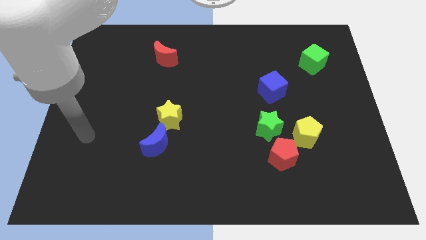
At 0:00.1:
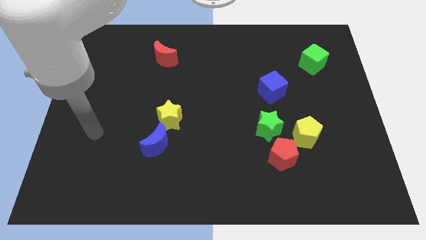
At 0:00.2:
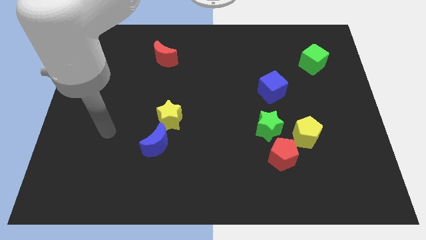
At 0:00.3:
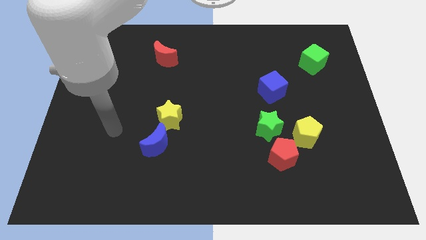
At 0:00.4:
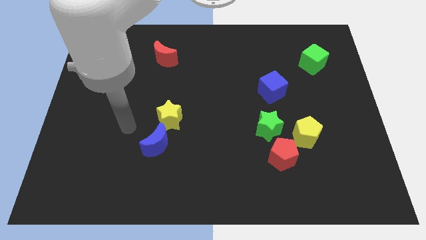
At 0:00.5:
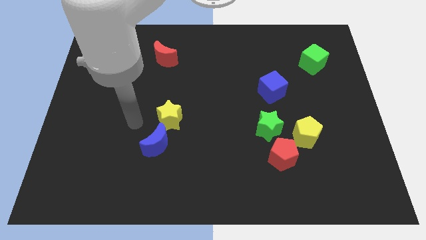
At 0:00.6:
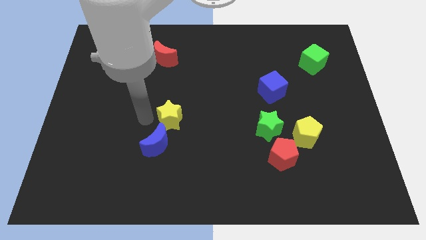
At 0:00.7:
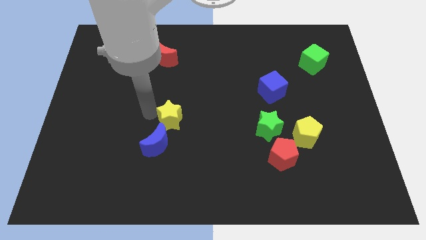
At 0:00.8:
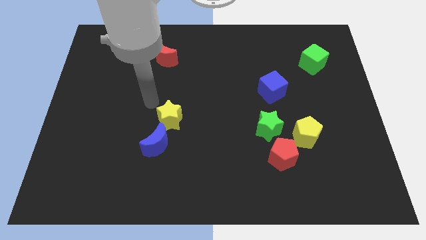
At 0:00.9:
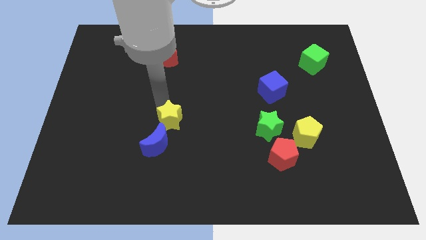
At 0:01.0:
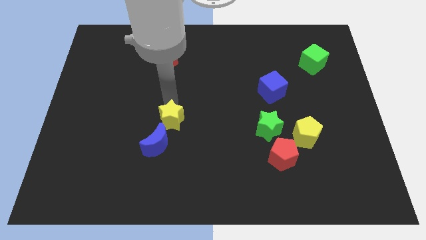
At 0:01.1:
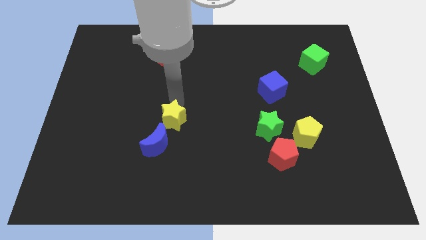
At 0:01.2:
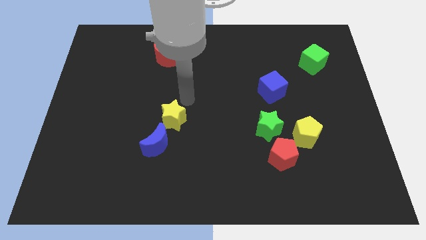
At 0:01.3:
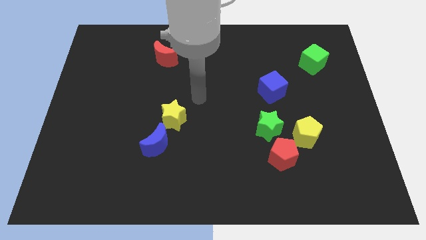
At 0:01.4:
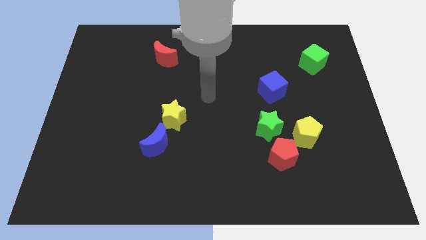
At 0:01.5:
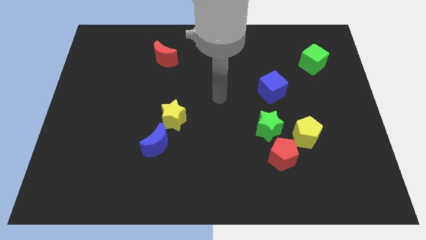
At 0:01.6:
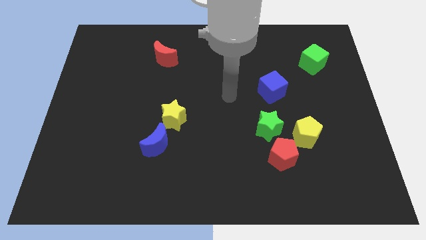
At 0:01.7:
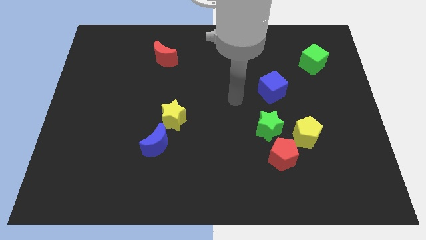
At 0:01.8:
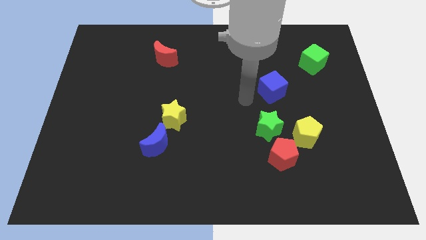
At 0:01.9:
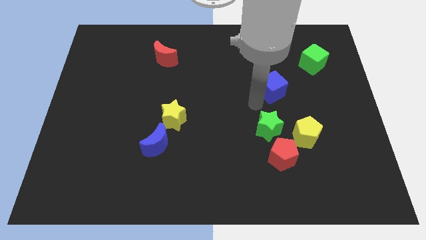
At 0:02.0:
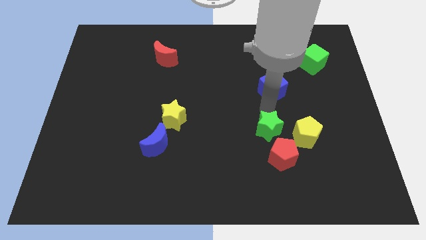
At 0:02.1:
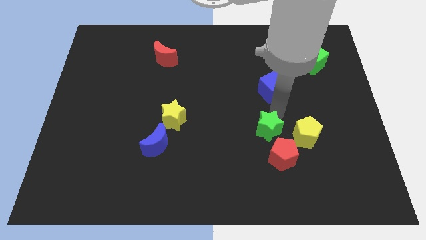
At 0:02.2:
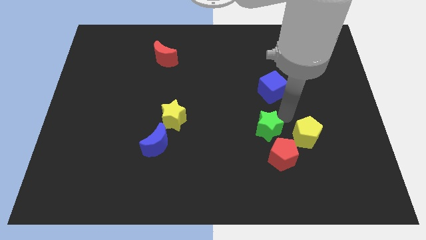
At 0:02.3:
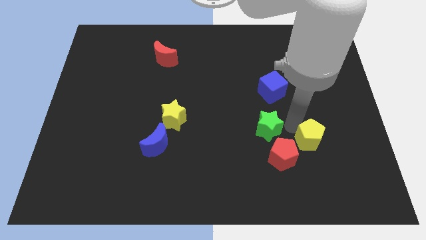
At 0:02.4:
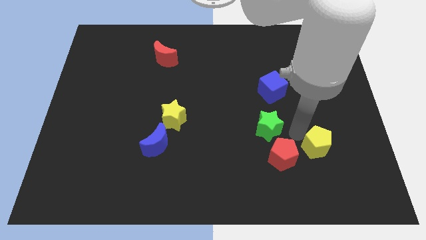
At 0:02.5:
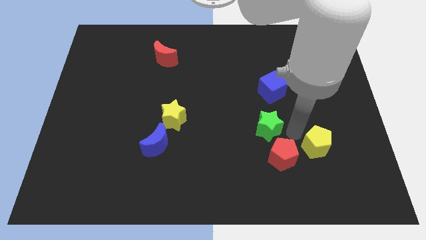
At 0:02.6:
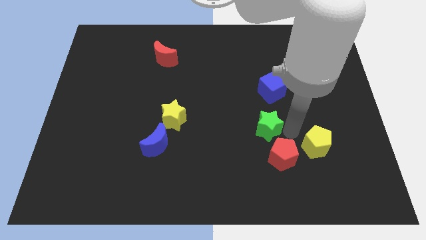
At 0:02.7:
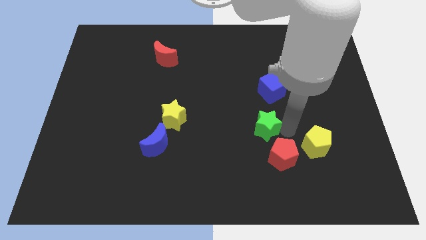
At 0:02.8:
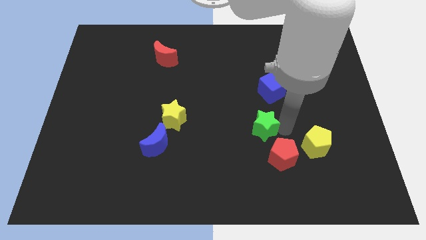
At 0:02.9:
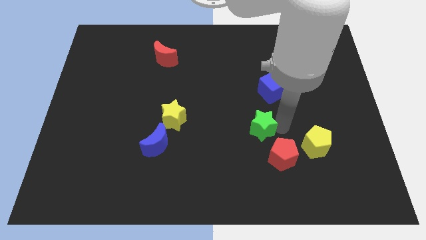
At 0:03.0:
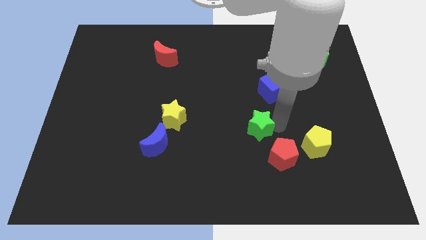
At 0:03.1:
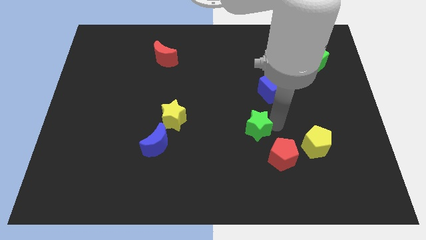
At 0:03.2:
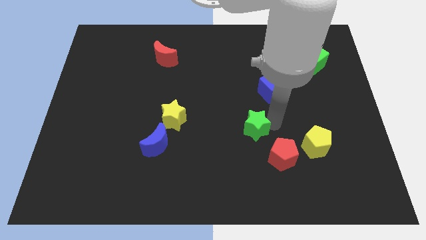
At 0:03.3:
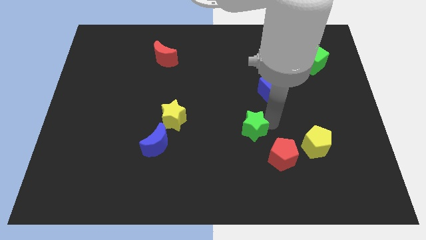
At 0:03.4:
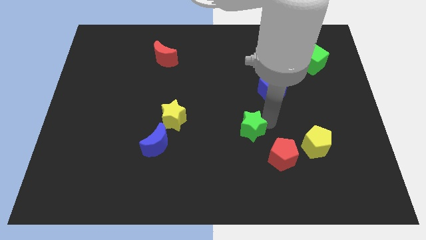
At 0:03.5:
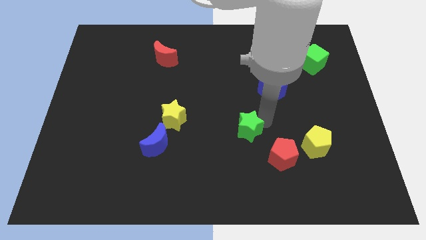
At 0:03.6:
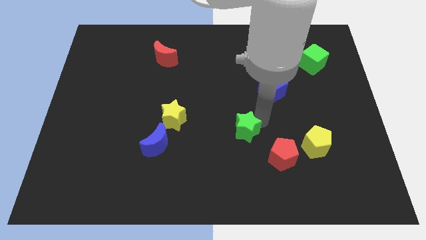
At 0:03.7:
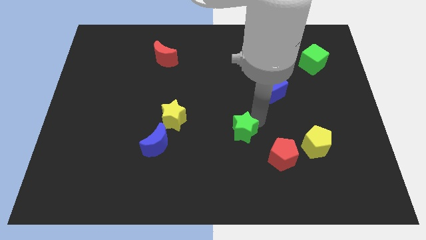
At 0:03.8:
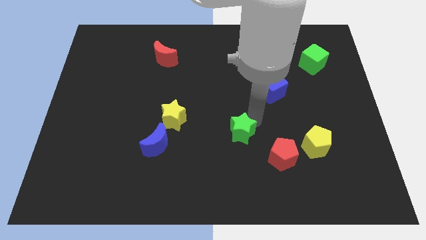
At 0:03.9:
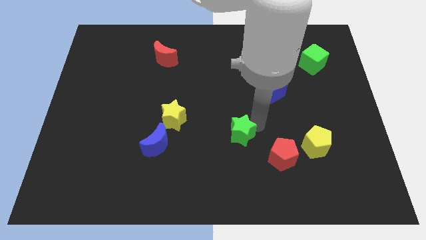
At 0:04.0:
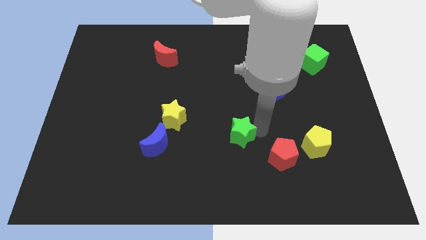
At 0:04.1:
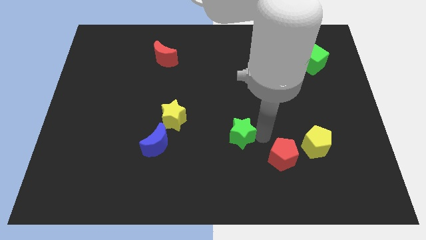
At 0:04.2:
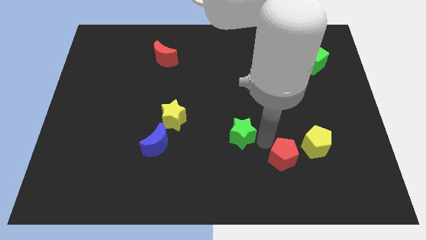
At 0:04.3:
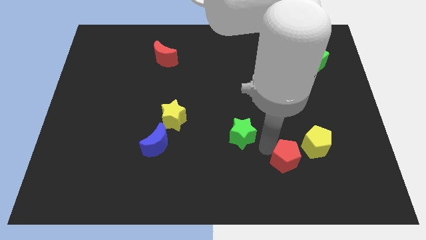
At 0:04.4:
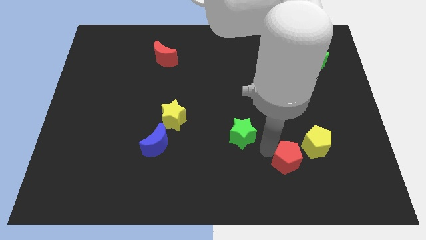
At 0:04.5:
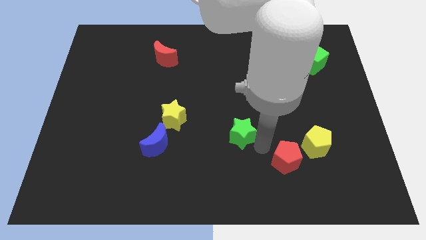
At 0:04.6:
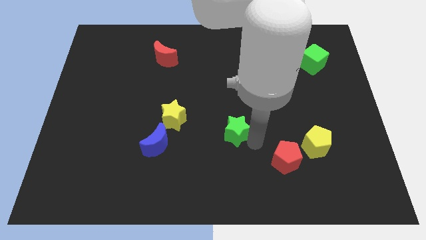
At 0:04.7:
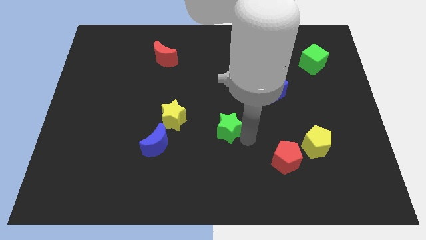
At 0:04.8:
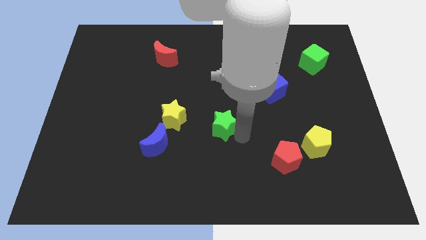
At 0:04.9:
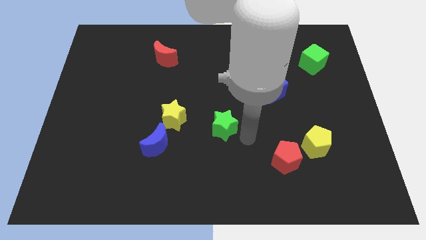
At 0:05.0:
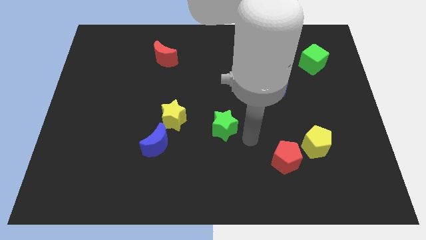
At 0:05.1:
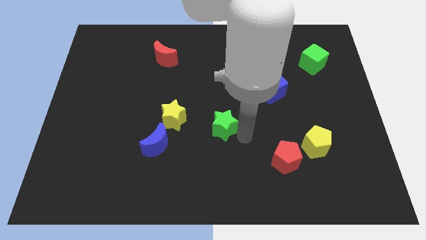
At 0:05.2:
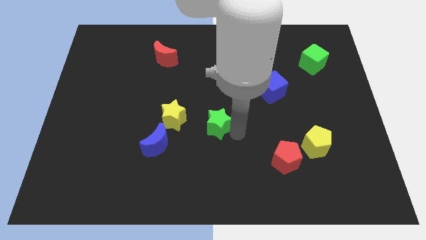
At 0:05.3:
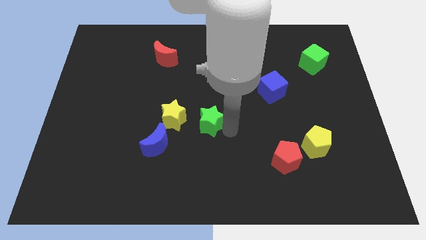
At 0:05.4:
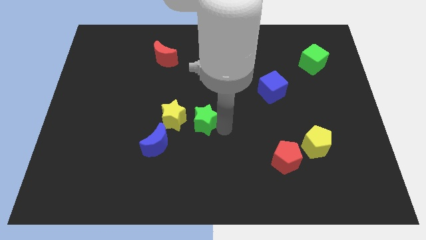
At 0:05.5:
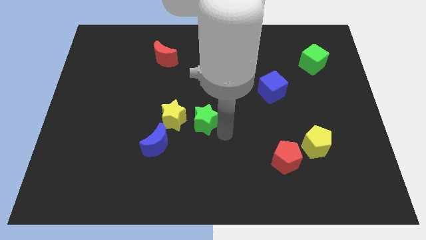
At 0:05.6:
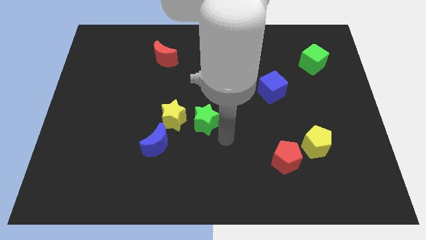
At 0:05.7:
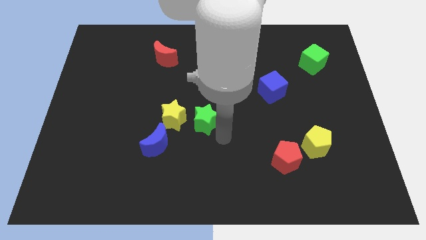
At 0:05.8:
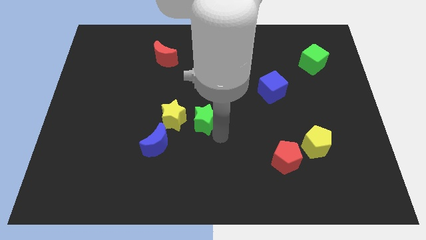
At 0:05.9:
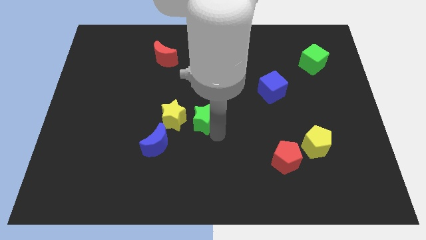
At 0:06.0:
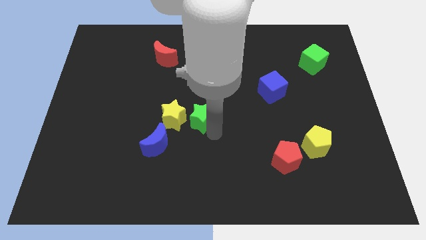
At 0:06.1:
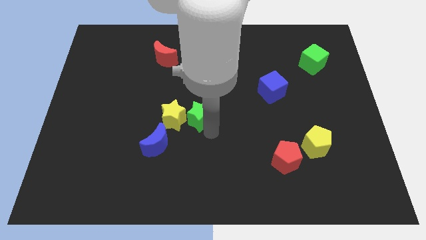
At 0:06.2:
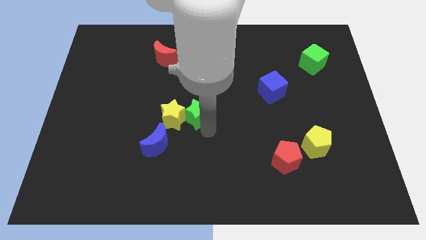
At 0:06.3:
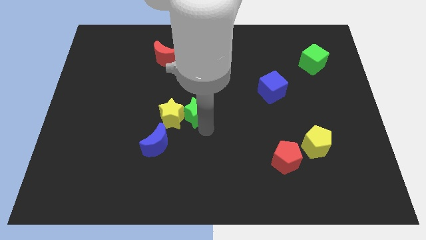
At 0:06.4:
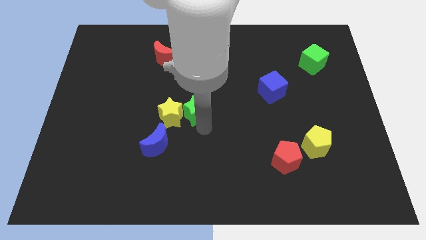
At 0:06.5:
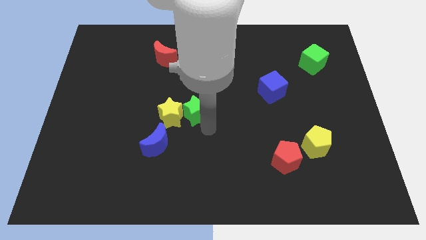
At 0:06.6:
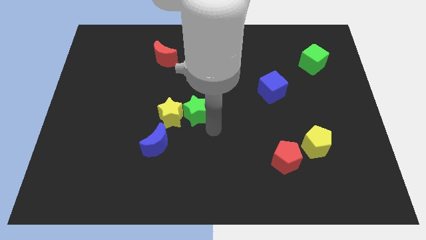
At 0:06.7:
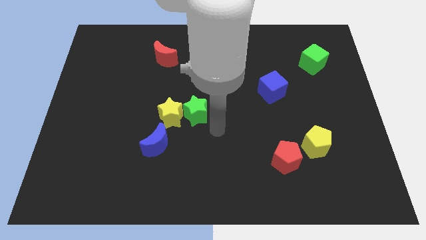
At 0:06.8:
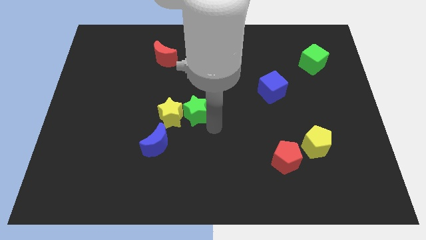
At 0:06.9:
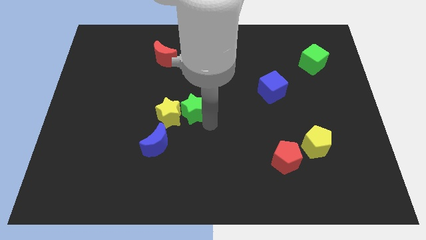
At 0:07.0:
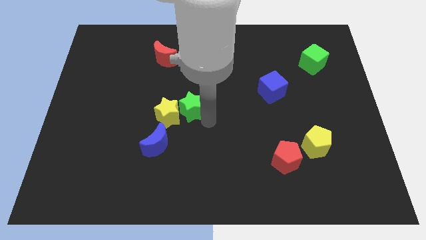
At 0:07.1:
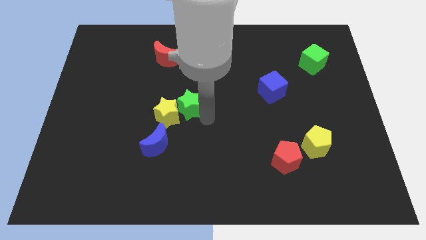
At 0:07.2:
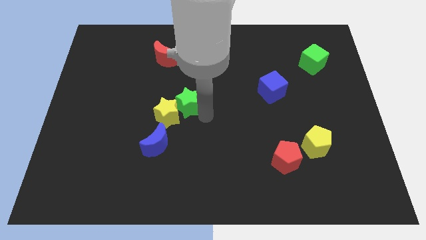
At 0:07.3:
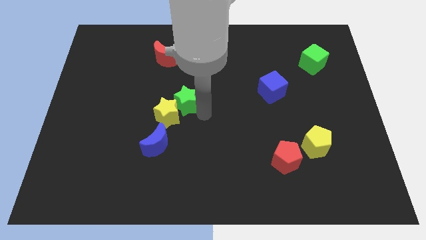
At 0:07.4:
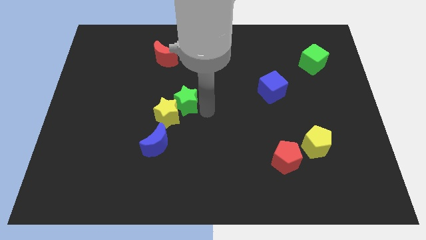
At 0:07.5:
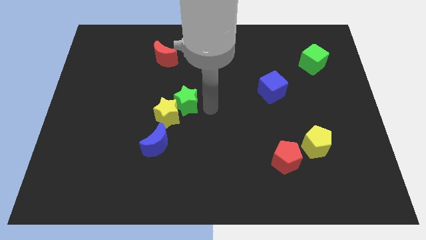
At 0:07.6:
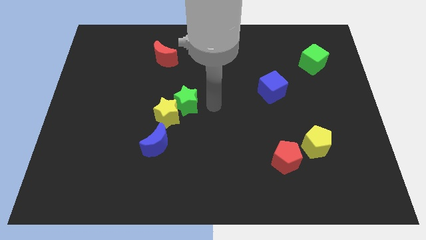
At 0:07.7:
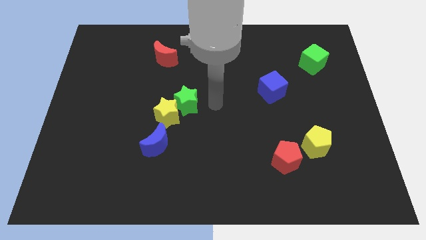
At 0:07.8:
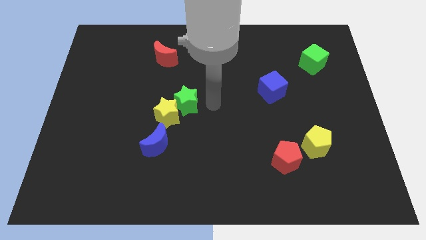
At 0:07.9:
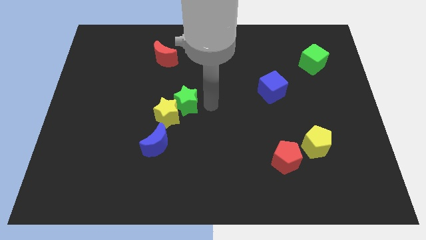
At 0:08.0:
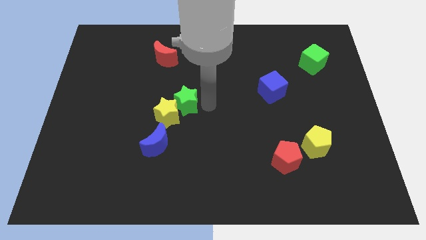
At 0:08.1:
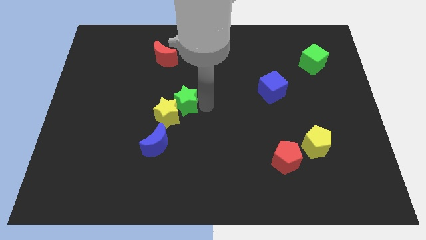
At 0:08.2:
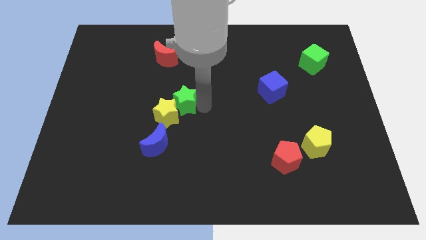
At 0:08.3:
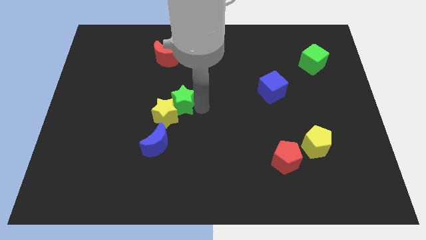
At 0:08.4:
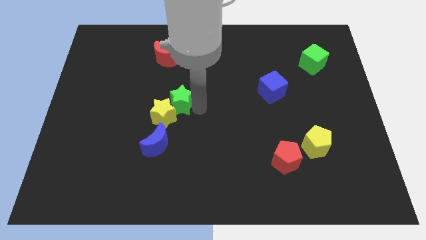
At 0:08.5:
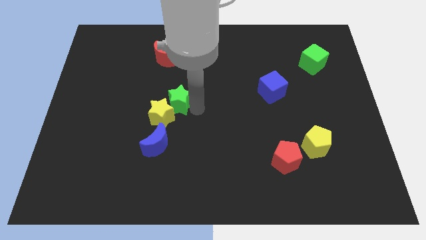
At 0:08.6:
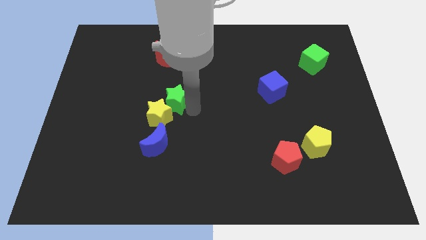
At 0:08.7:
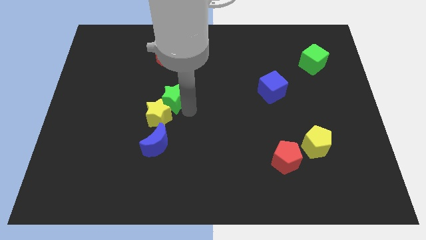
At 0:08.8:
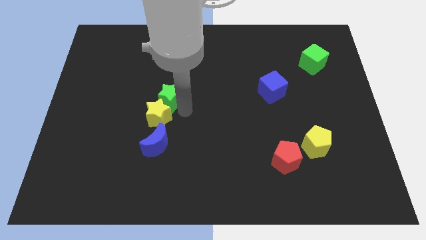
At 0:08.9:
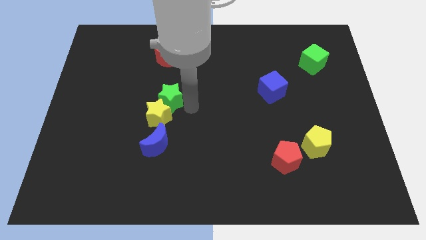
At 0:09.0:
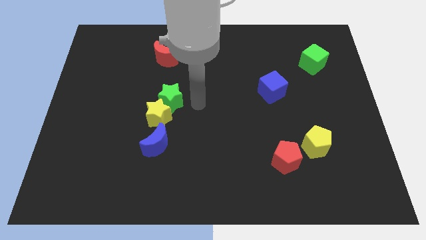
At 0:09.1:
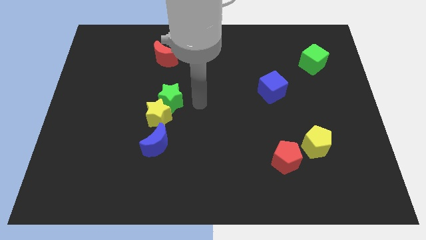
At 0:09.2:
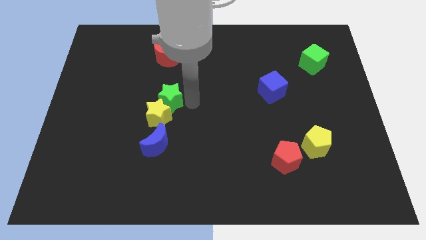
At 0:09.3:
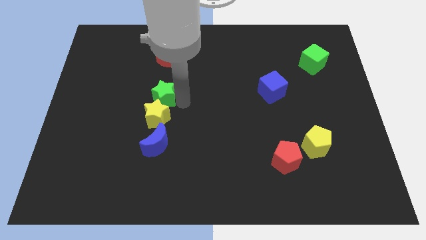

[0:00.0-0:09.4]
put the green star to the top left side of the yellow star
